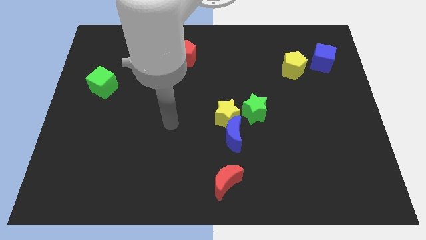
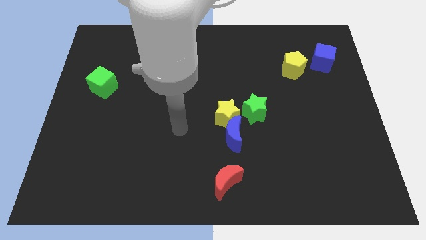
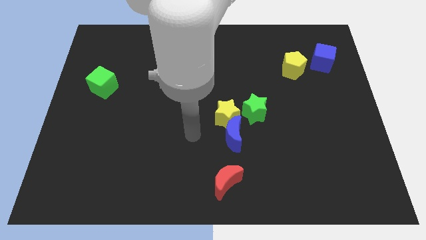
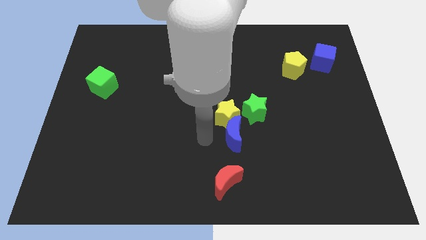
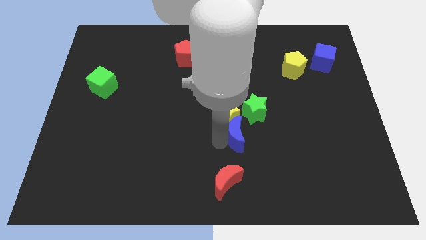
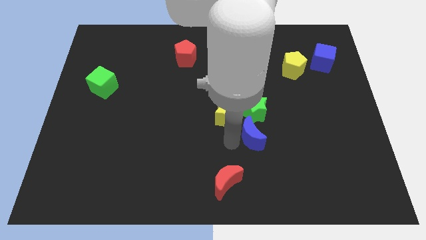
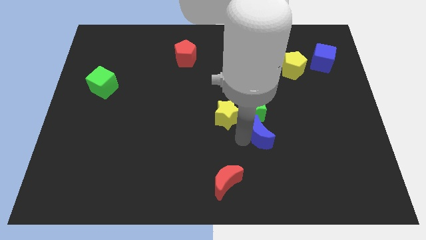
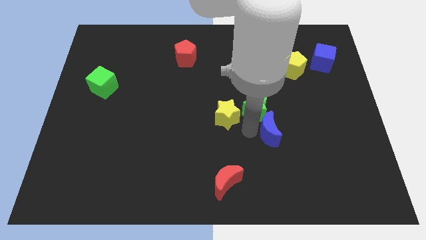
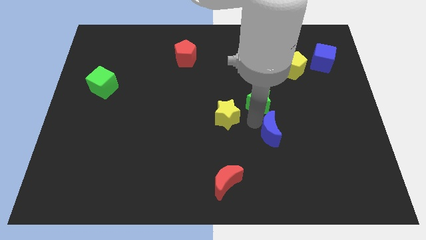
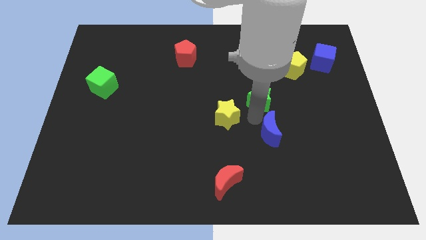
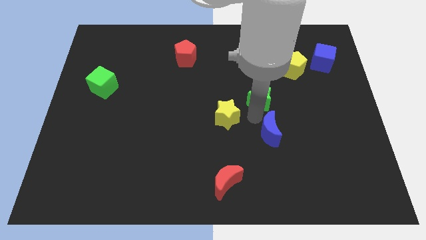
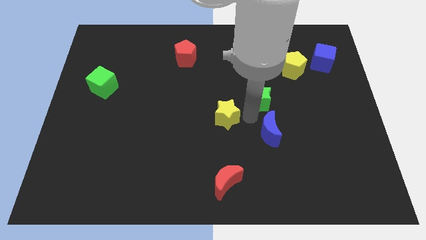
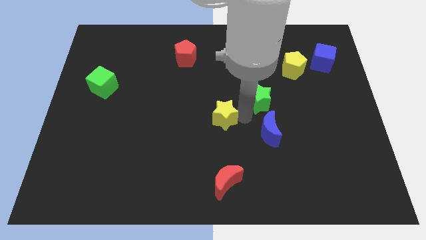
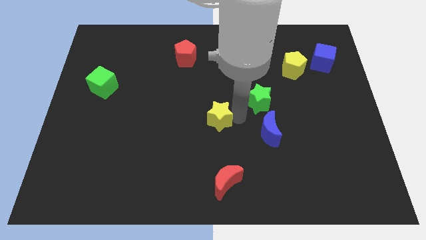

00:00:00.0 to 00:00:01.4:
move the yellow star away from the blue moon and green star

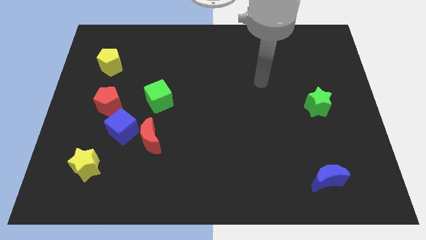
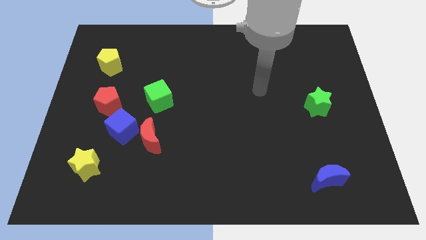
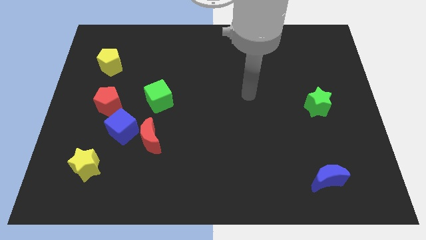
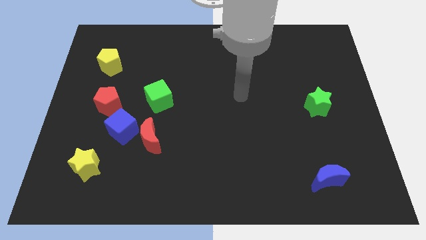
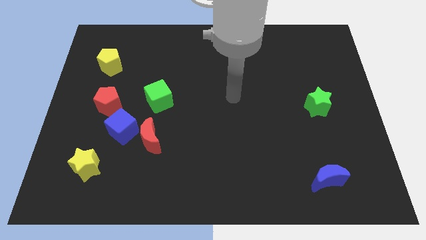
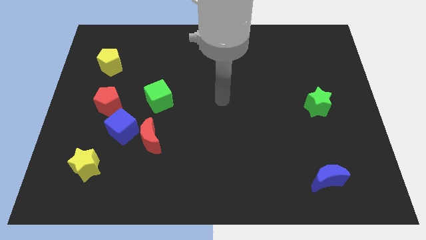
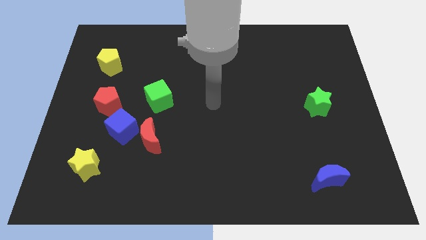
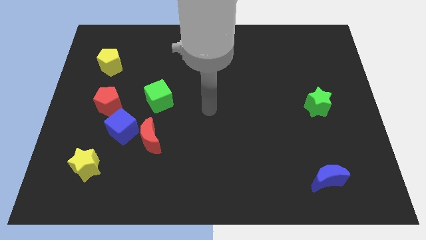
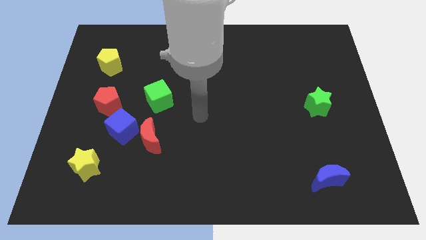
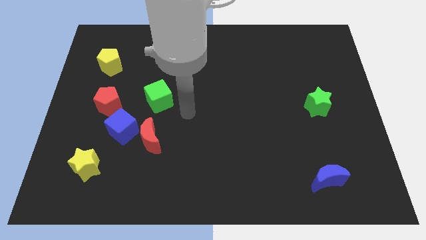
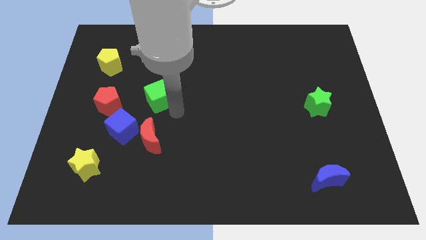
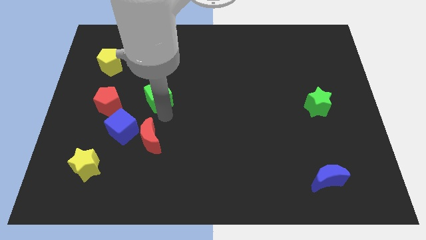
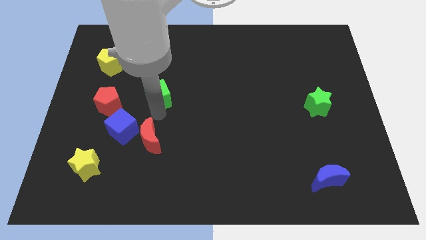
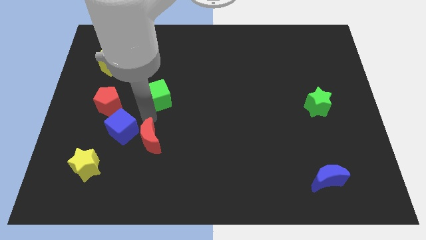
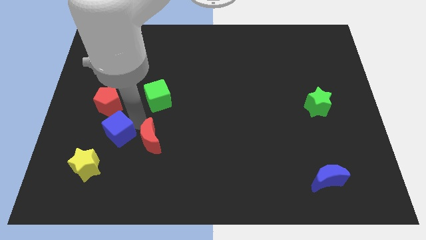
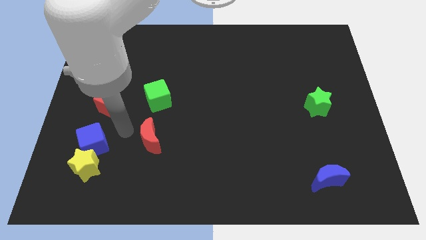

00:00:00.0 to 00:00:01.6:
pull the red moon apart from the blue cube

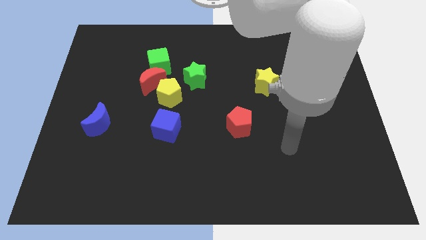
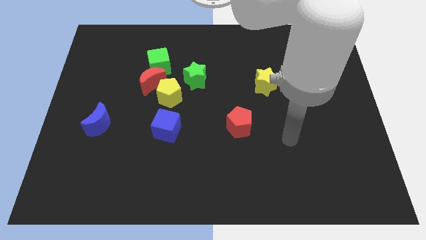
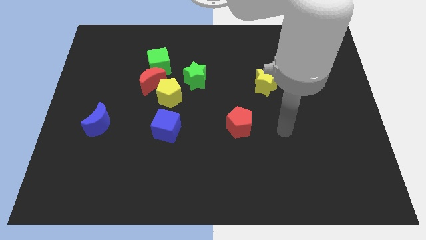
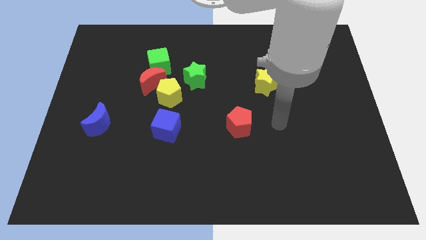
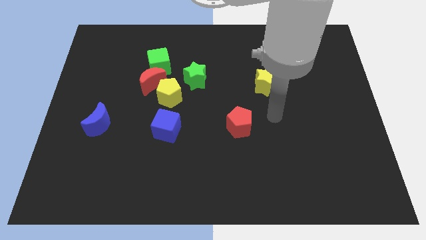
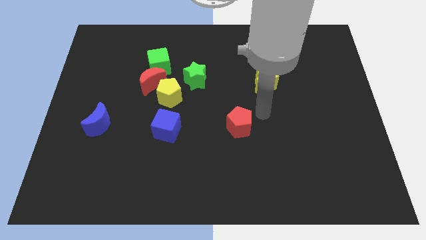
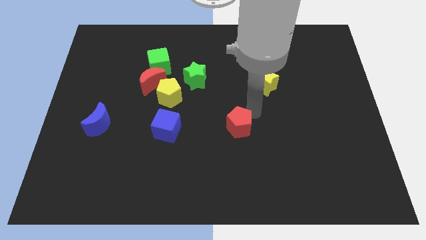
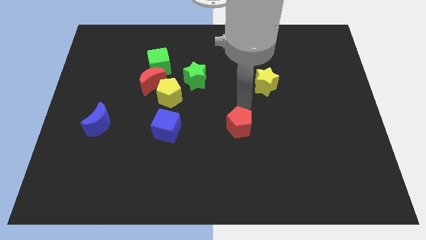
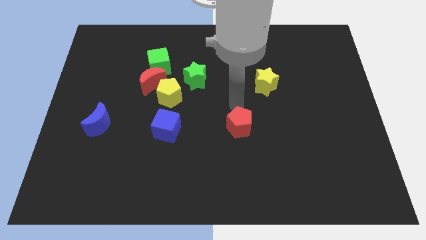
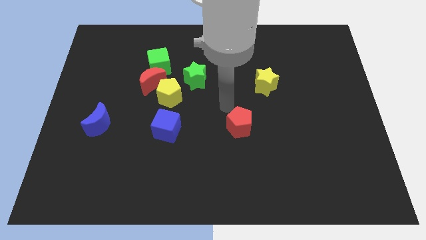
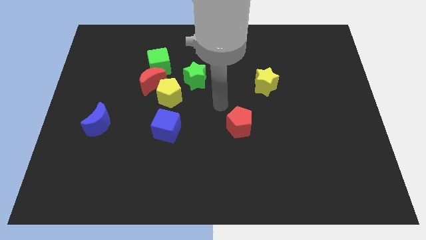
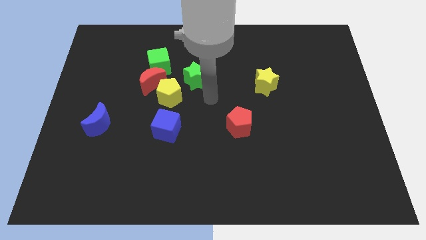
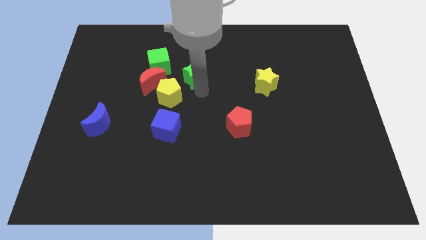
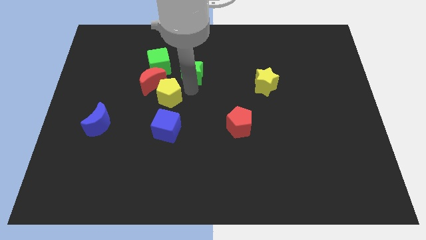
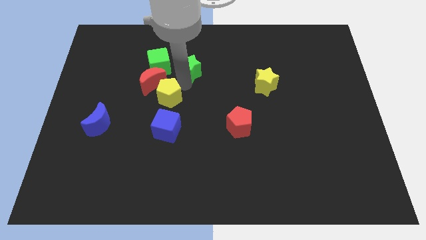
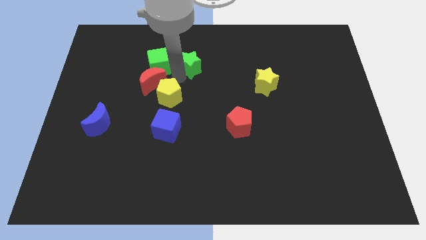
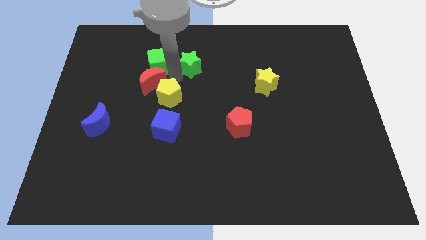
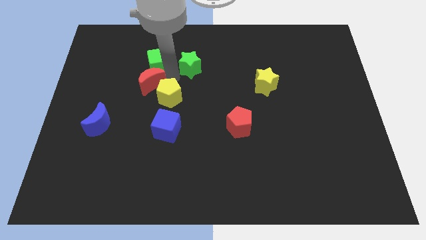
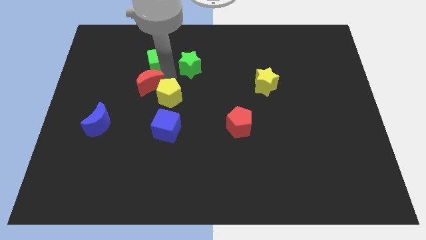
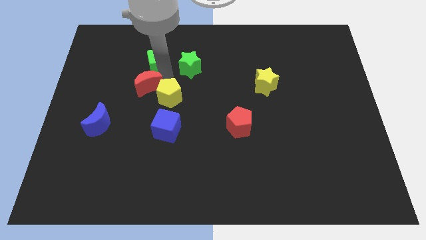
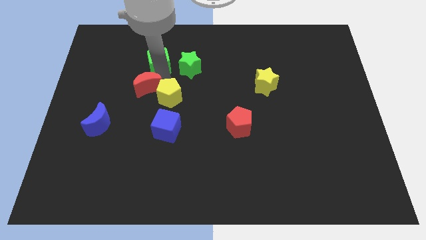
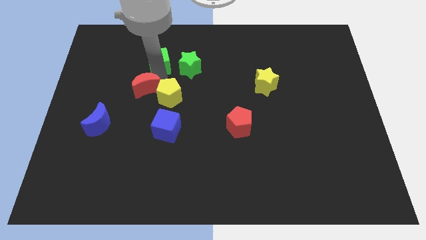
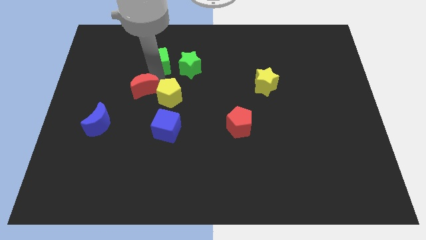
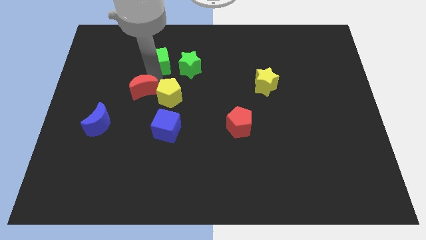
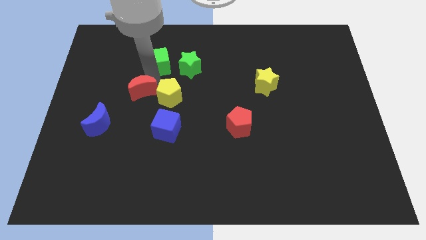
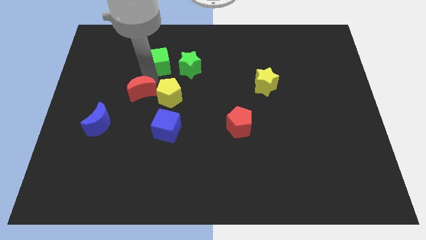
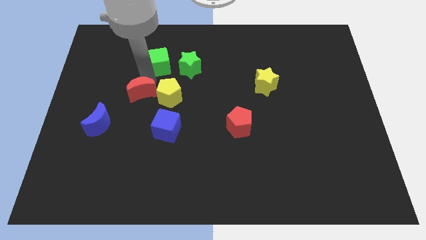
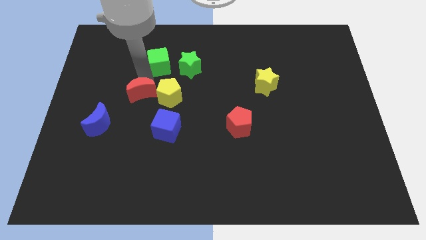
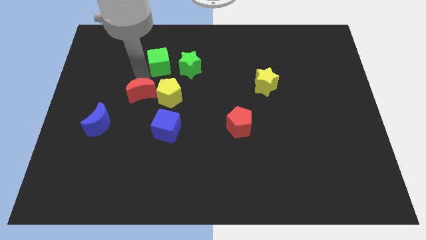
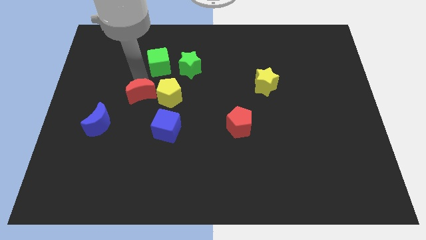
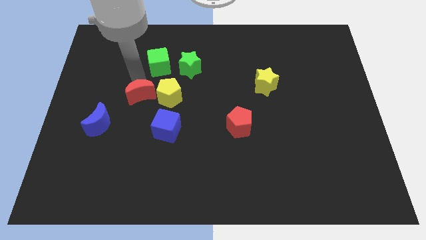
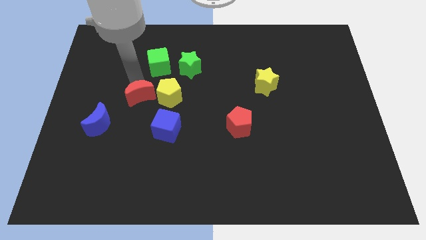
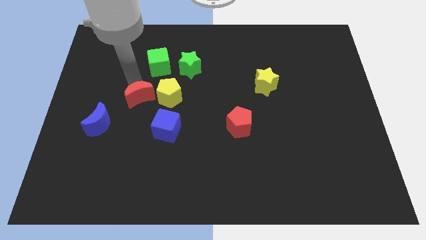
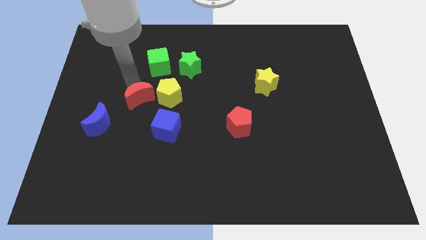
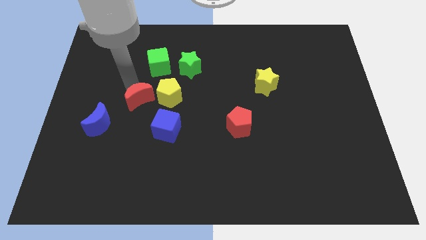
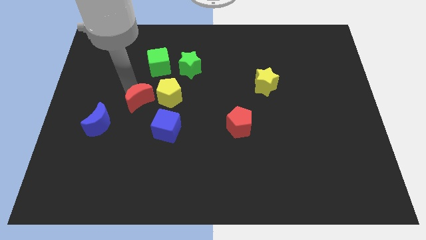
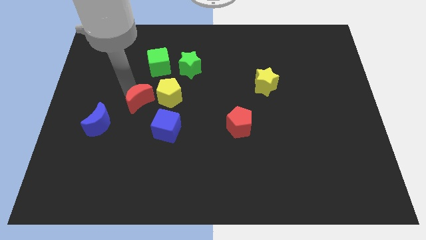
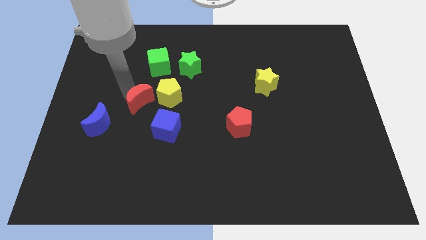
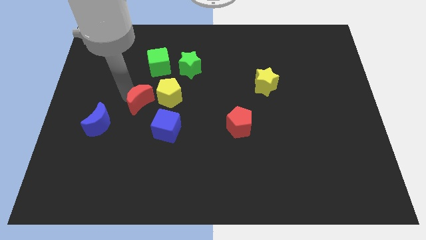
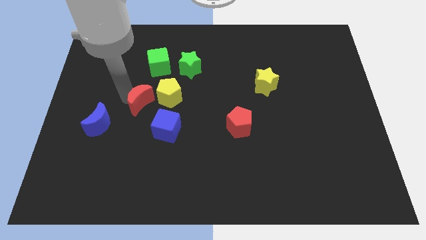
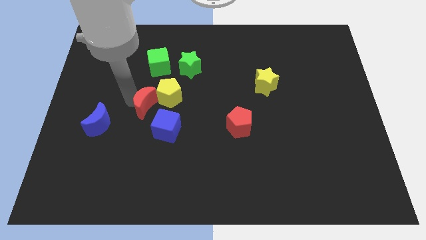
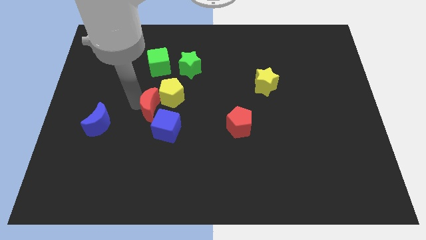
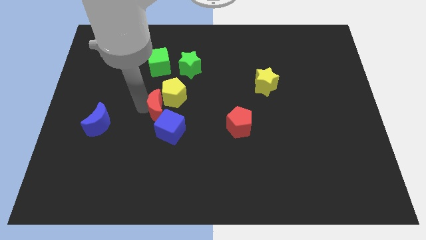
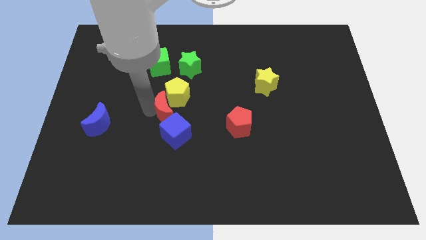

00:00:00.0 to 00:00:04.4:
move the red moon away from the yellow pentagon and green cube

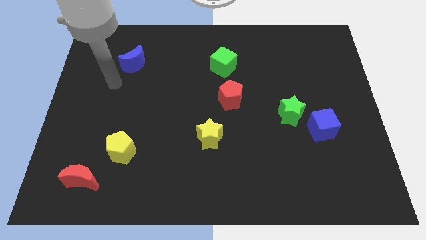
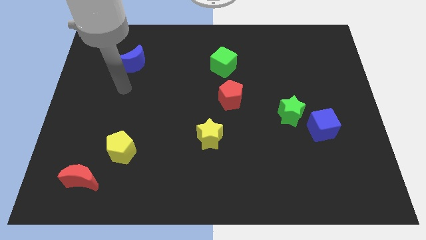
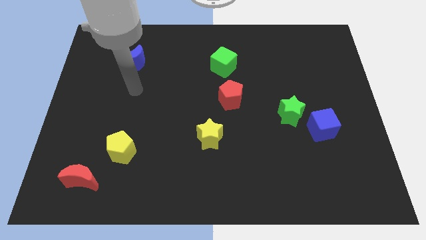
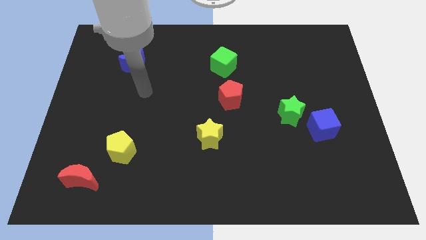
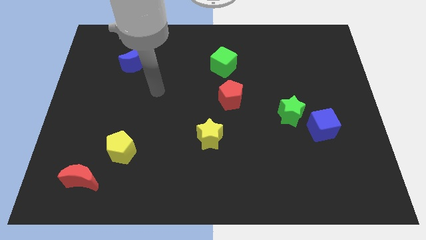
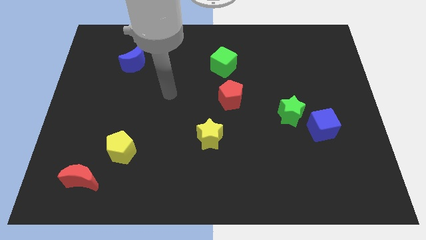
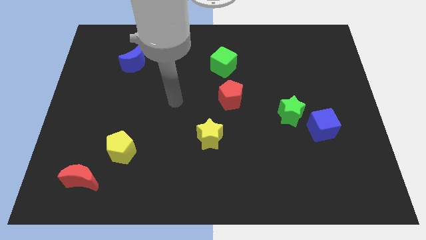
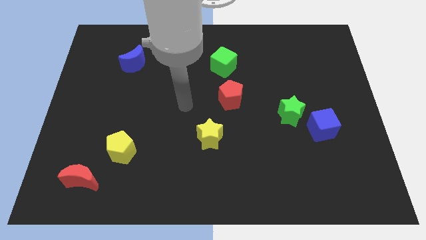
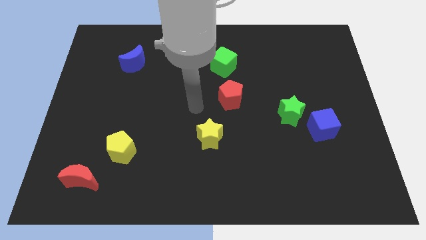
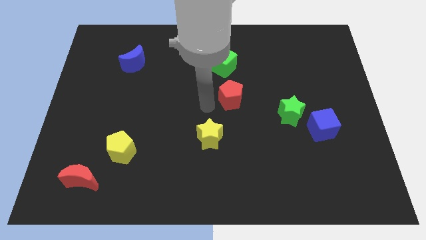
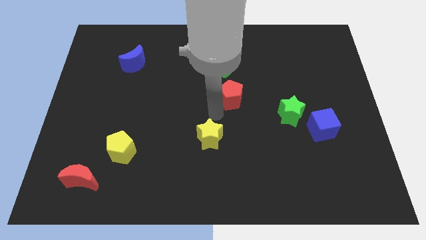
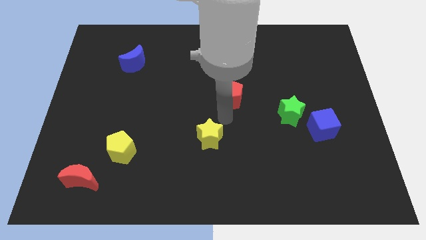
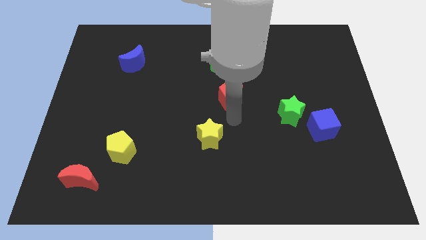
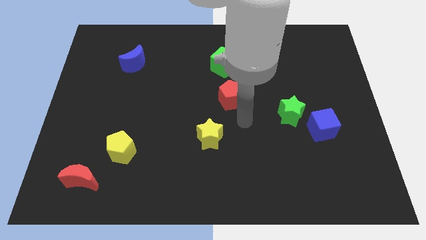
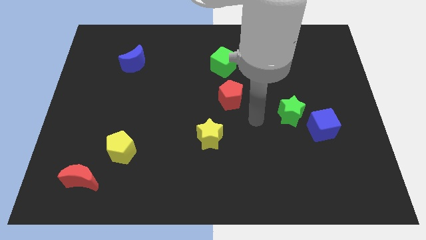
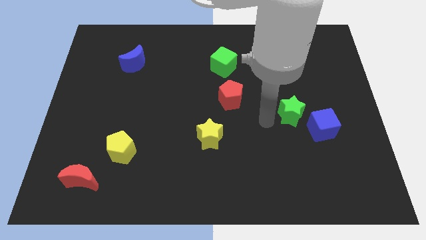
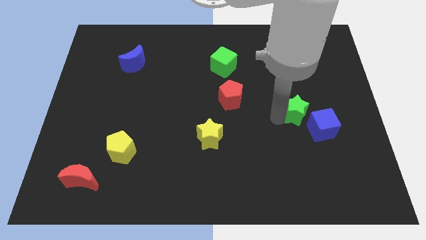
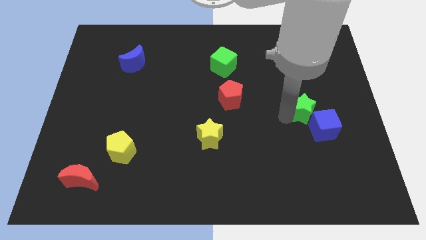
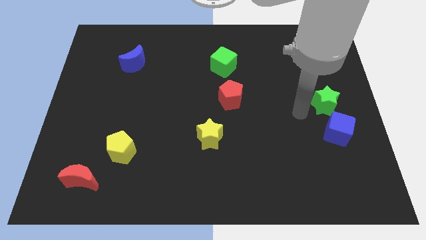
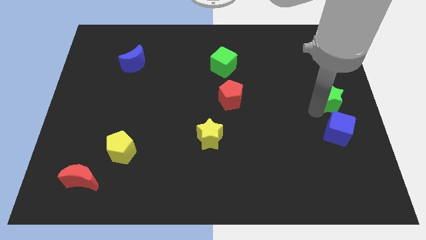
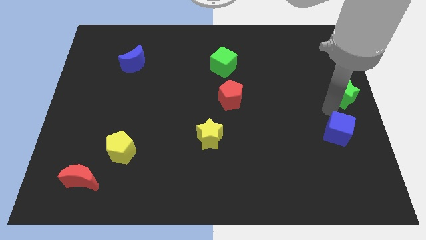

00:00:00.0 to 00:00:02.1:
pull the blue cube apart from the green star

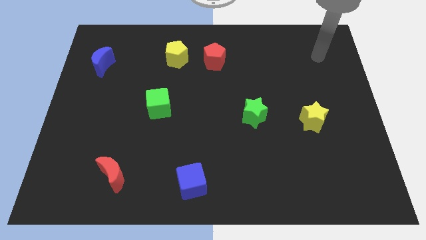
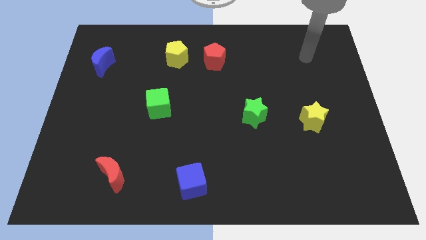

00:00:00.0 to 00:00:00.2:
pull the red pentagon apart from the yellow pentagon
